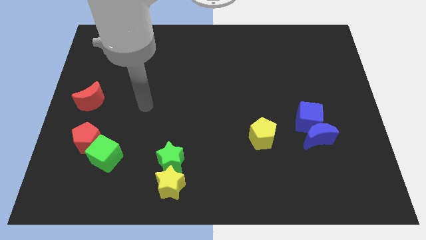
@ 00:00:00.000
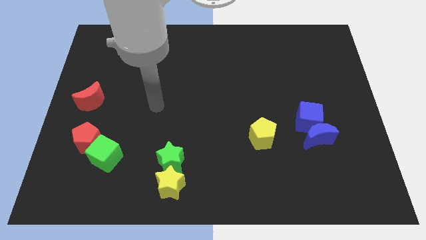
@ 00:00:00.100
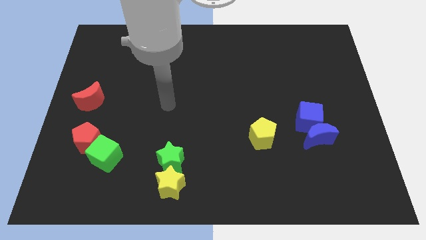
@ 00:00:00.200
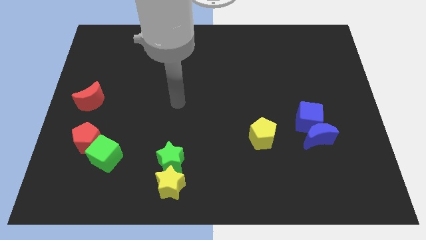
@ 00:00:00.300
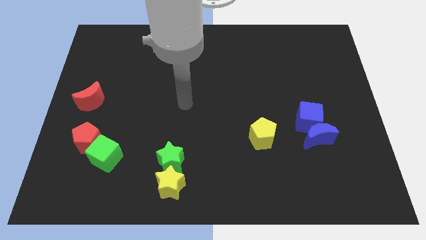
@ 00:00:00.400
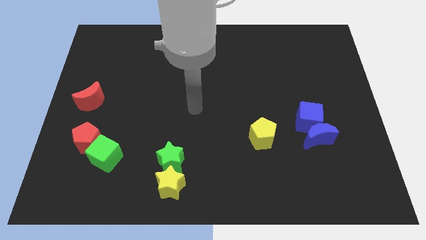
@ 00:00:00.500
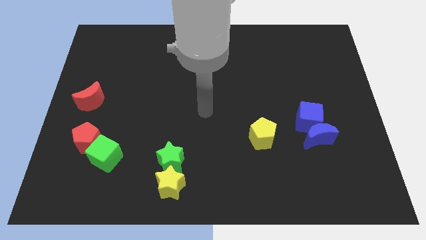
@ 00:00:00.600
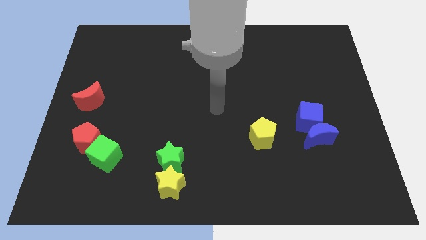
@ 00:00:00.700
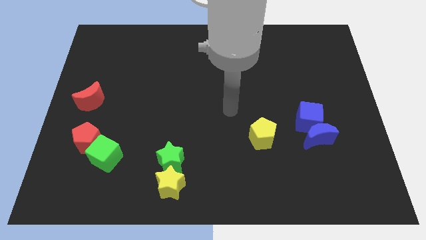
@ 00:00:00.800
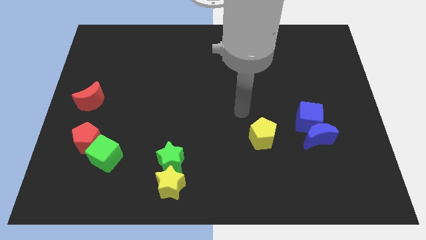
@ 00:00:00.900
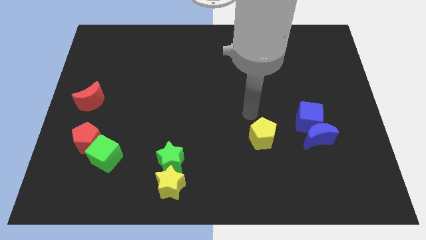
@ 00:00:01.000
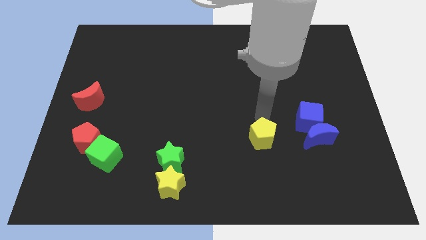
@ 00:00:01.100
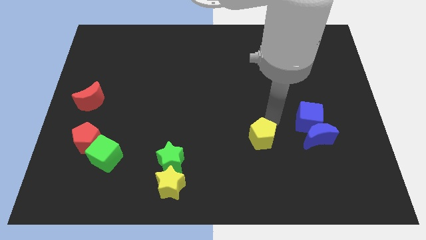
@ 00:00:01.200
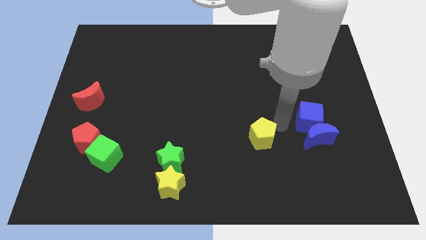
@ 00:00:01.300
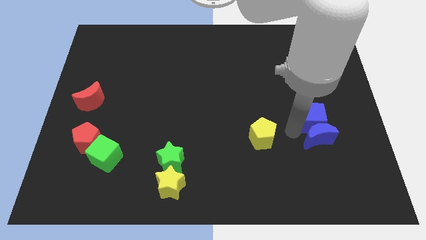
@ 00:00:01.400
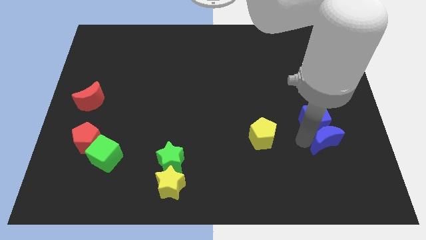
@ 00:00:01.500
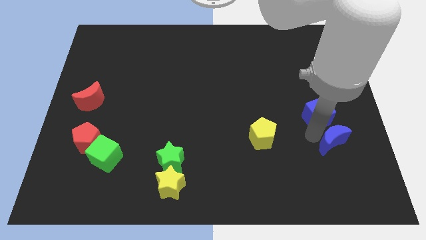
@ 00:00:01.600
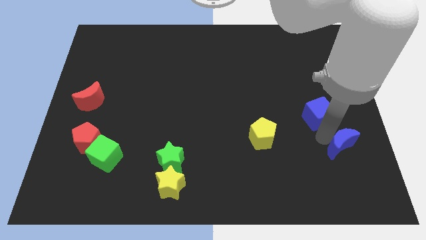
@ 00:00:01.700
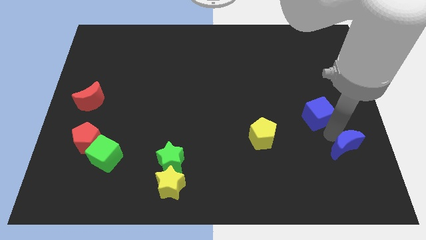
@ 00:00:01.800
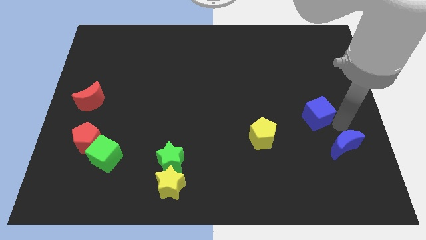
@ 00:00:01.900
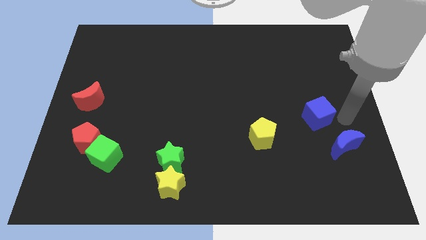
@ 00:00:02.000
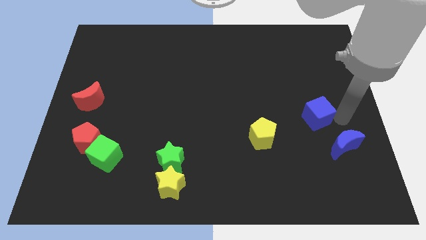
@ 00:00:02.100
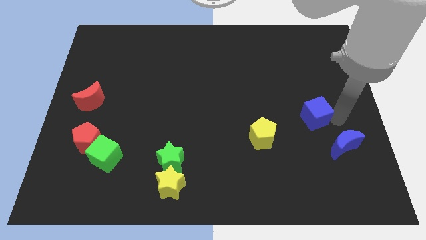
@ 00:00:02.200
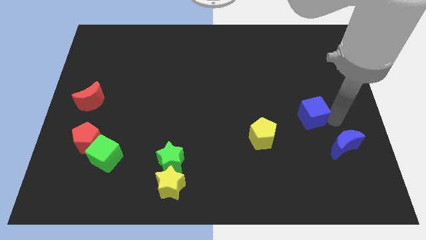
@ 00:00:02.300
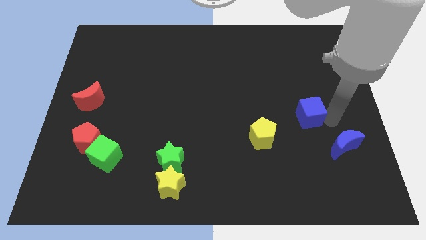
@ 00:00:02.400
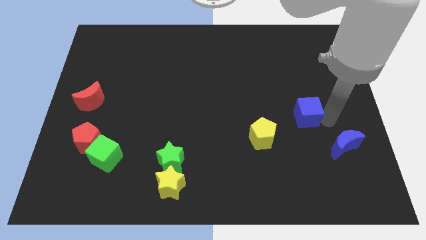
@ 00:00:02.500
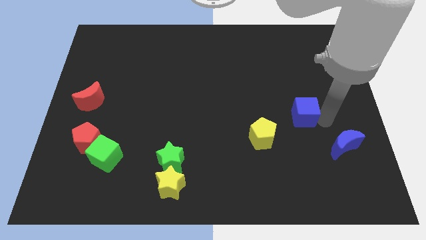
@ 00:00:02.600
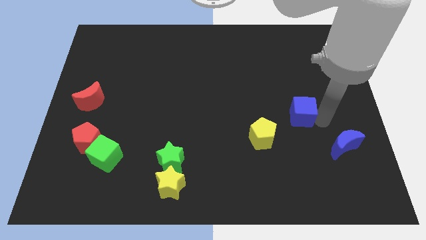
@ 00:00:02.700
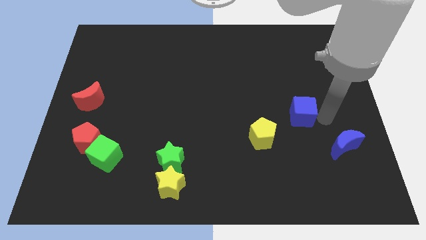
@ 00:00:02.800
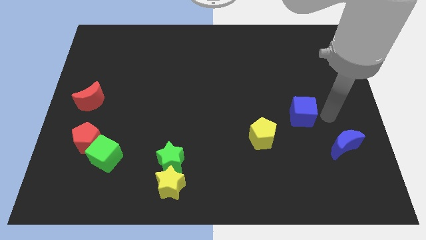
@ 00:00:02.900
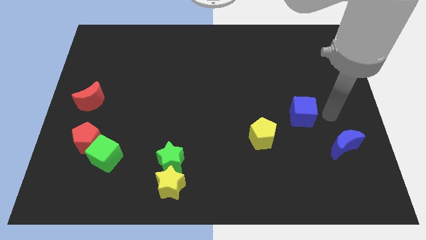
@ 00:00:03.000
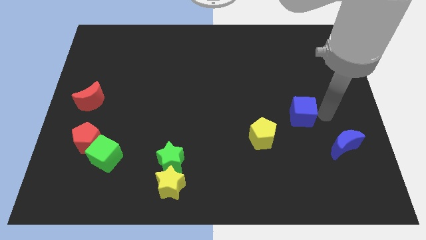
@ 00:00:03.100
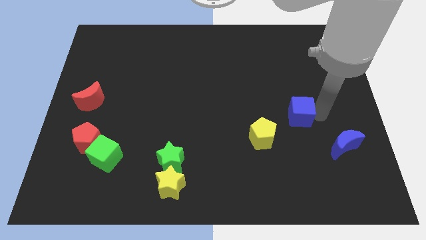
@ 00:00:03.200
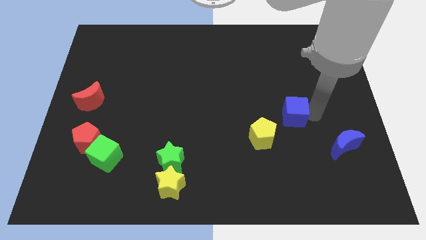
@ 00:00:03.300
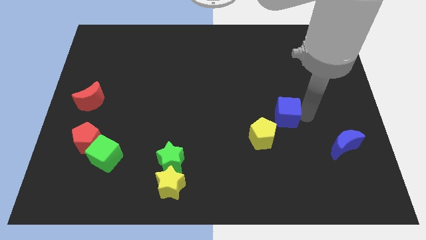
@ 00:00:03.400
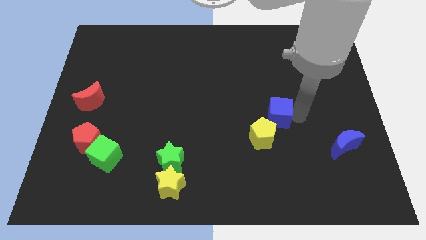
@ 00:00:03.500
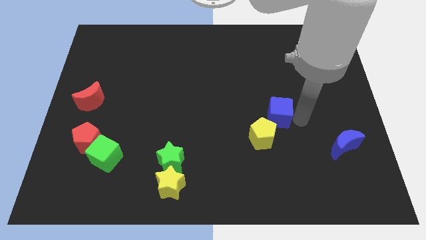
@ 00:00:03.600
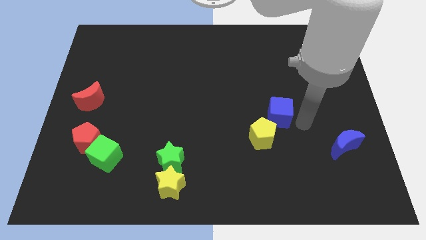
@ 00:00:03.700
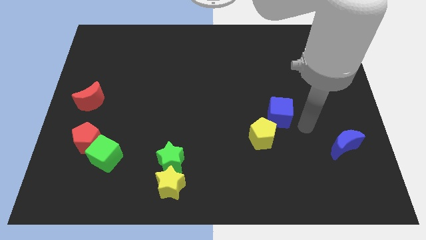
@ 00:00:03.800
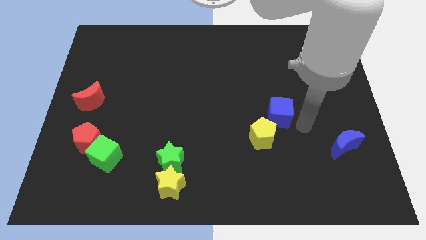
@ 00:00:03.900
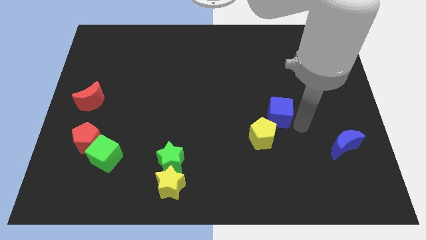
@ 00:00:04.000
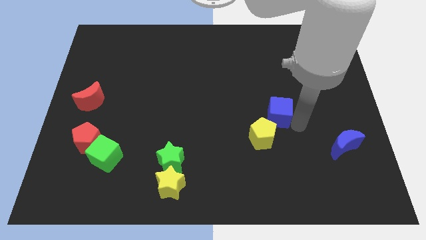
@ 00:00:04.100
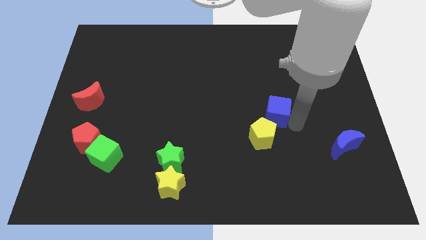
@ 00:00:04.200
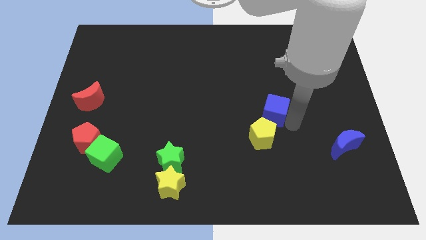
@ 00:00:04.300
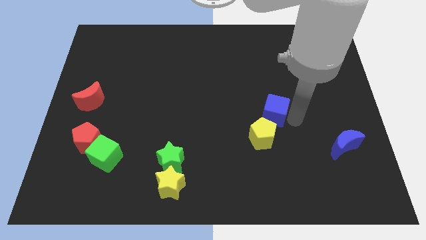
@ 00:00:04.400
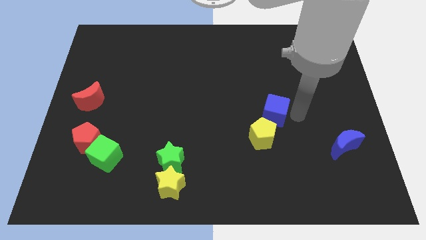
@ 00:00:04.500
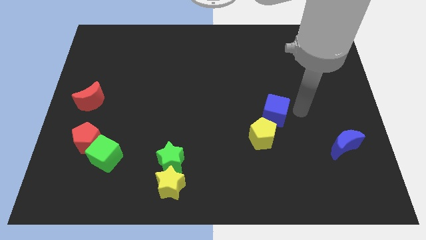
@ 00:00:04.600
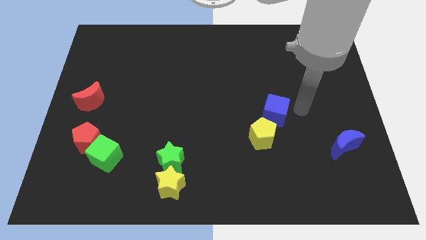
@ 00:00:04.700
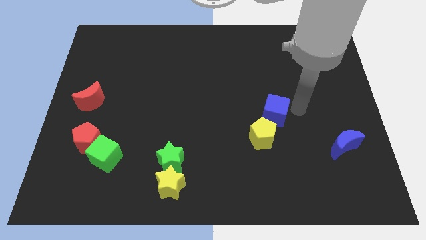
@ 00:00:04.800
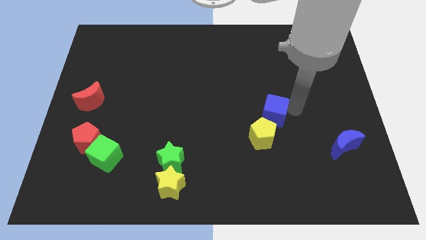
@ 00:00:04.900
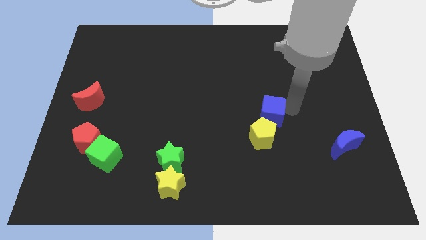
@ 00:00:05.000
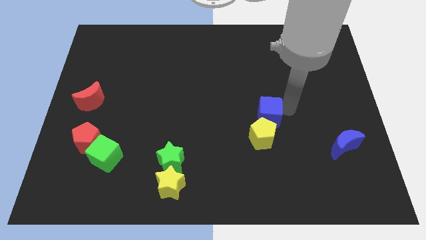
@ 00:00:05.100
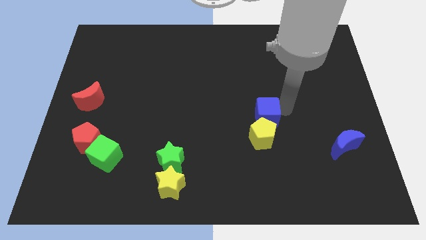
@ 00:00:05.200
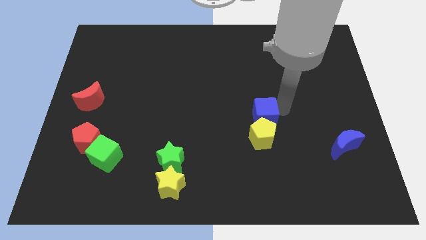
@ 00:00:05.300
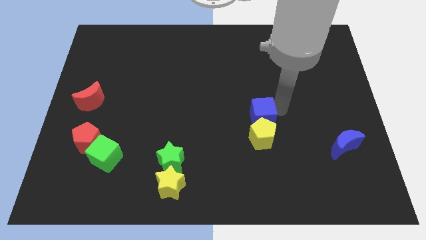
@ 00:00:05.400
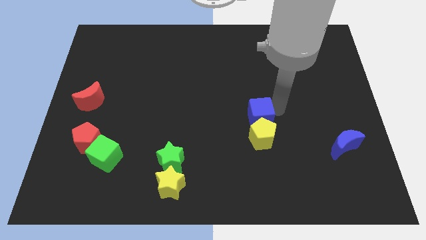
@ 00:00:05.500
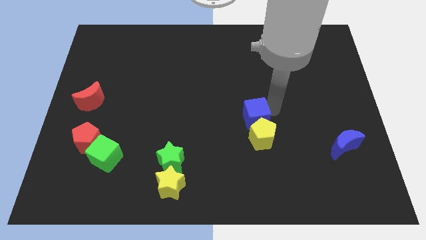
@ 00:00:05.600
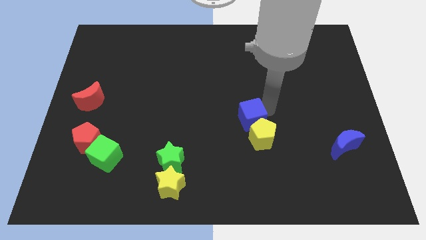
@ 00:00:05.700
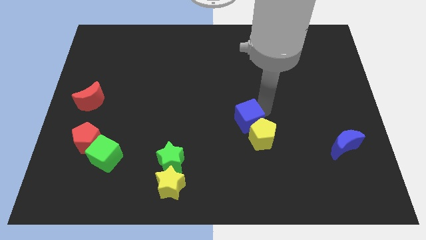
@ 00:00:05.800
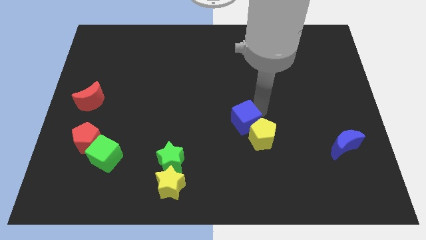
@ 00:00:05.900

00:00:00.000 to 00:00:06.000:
push the blue cube to the left side of the yellow pentagon

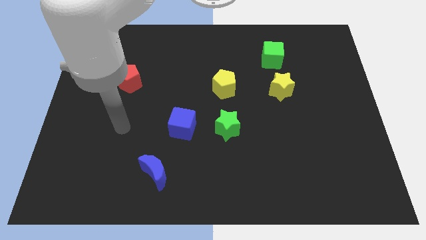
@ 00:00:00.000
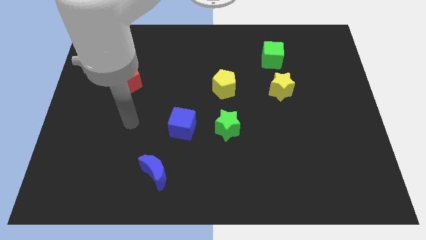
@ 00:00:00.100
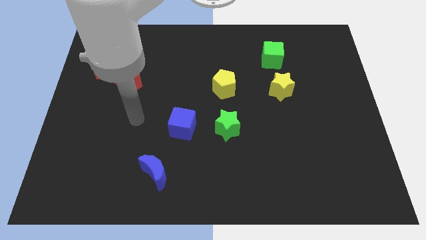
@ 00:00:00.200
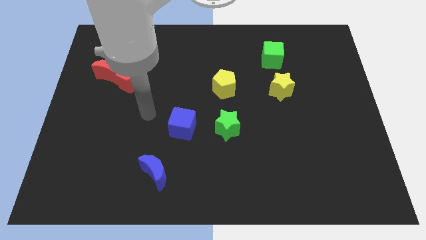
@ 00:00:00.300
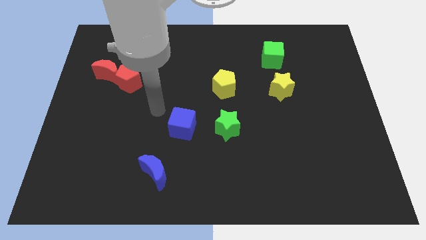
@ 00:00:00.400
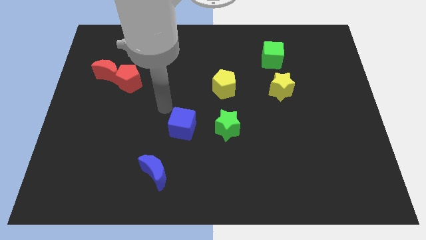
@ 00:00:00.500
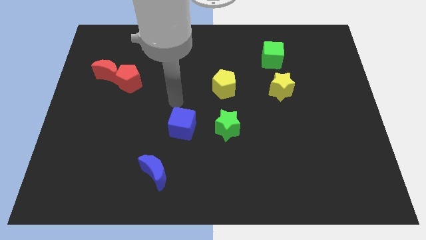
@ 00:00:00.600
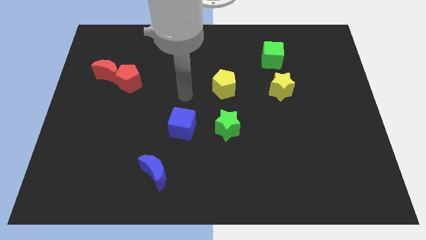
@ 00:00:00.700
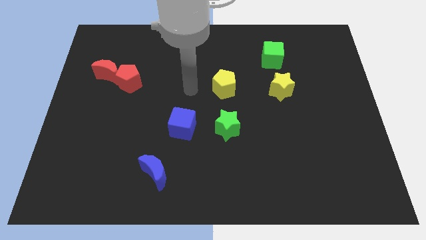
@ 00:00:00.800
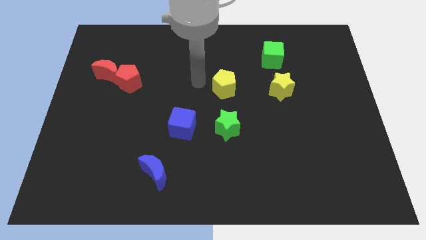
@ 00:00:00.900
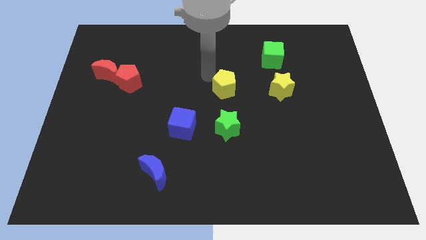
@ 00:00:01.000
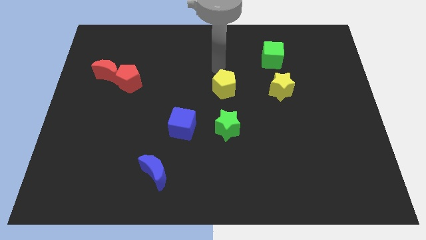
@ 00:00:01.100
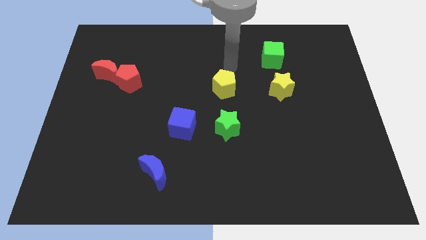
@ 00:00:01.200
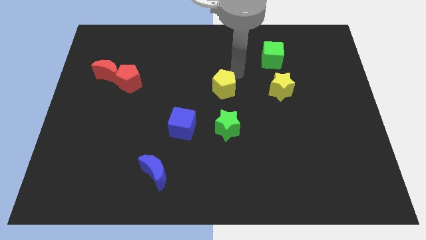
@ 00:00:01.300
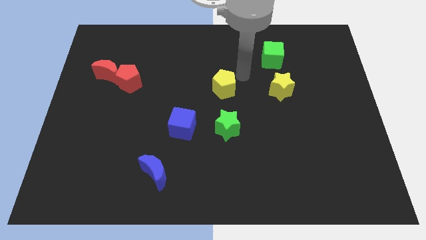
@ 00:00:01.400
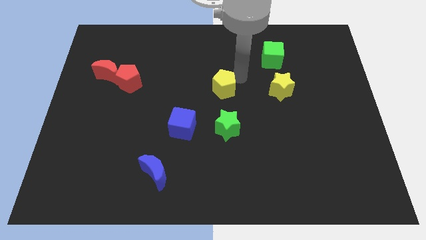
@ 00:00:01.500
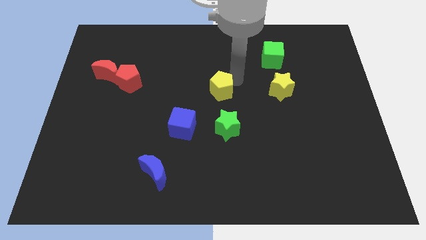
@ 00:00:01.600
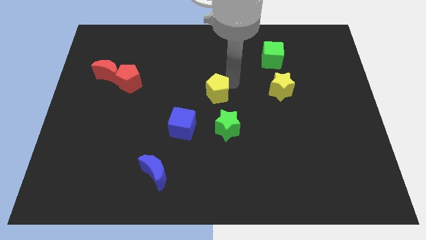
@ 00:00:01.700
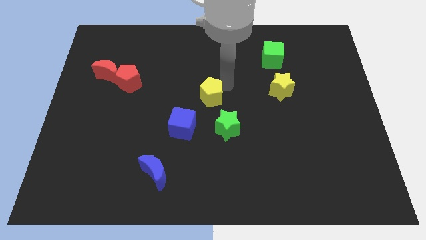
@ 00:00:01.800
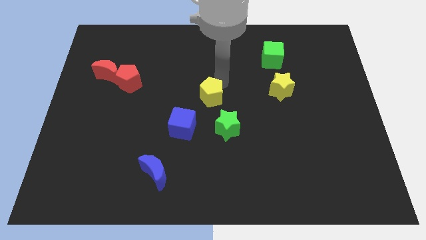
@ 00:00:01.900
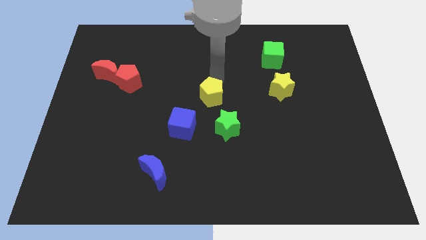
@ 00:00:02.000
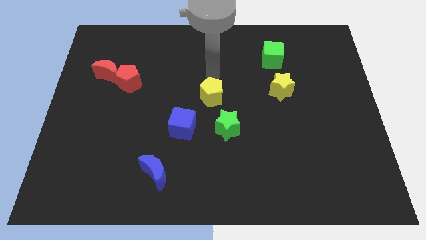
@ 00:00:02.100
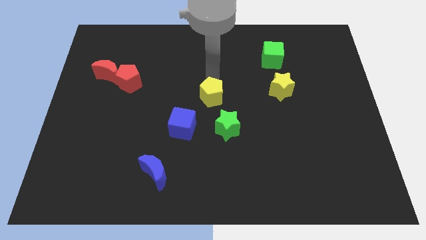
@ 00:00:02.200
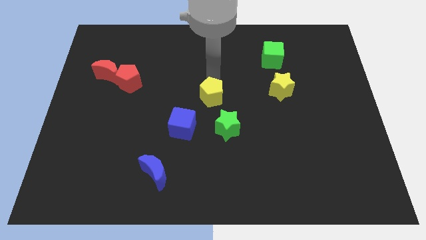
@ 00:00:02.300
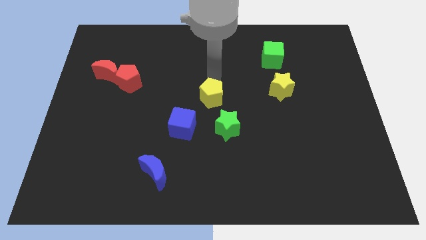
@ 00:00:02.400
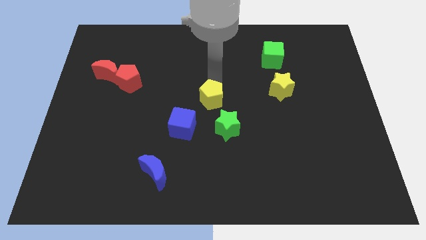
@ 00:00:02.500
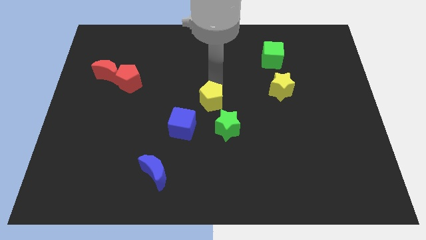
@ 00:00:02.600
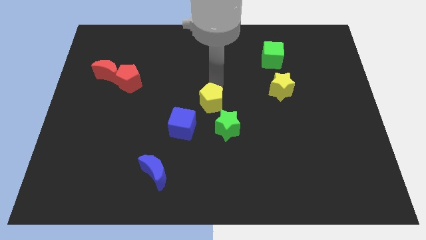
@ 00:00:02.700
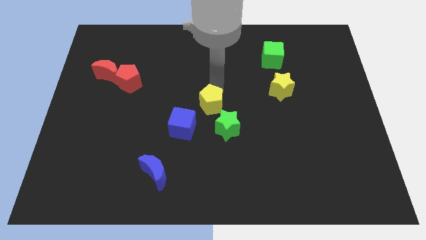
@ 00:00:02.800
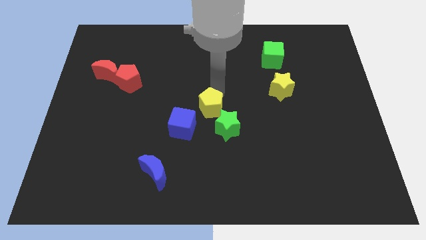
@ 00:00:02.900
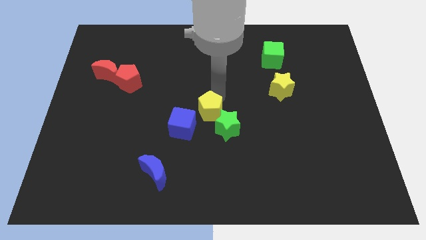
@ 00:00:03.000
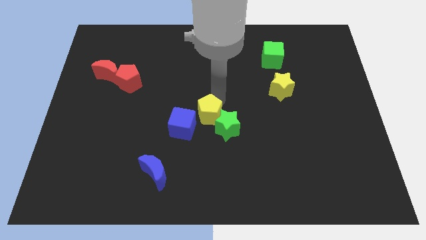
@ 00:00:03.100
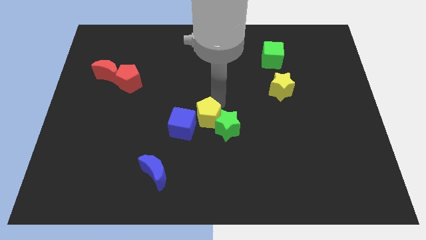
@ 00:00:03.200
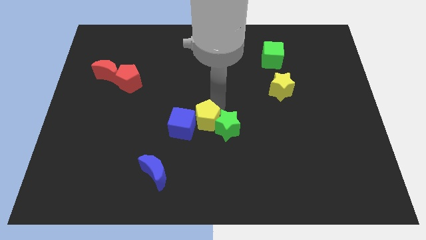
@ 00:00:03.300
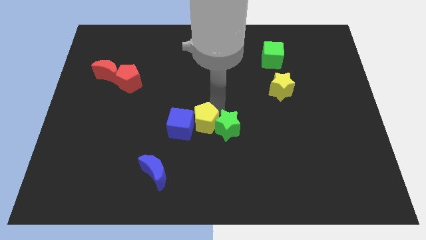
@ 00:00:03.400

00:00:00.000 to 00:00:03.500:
put the yellow pentagon diagonally down and to the right of the blue cube
